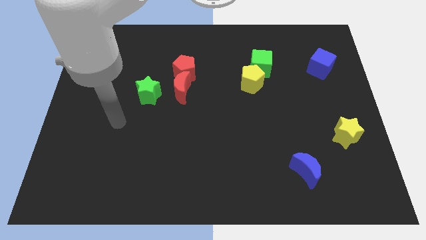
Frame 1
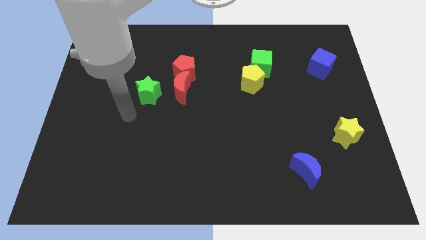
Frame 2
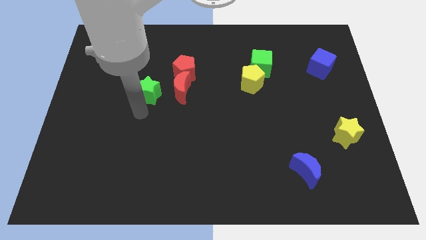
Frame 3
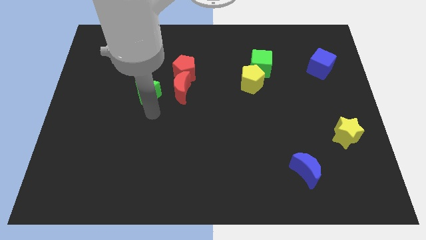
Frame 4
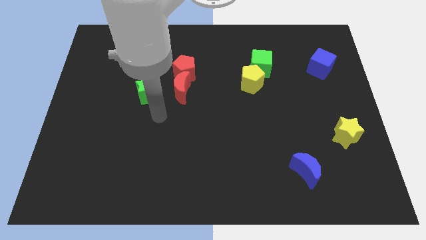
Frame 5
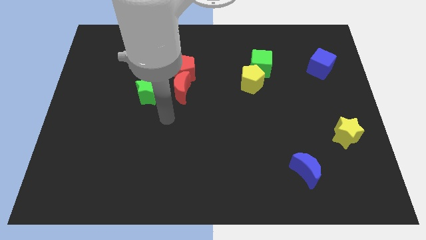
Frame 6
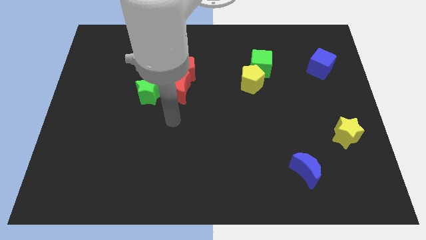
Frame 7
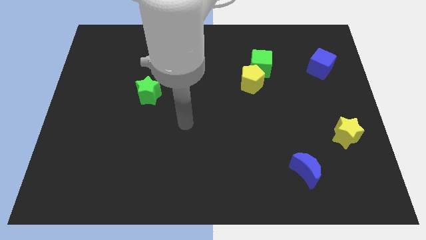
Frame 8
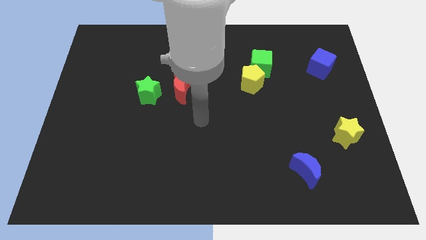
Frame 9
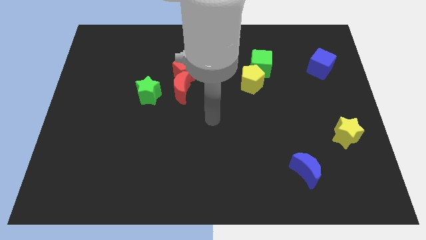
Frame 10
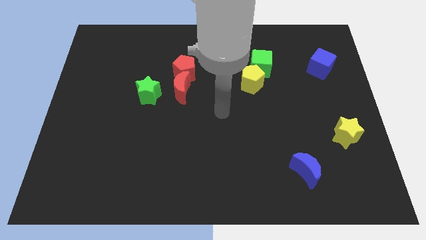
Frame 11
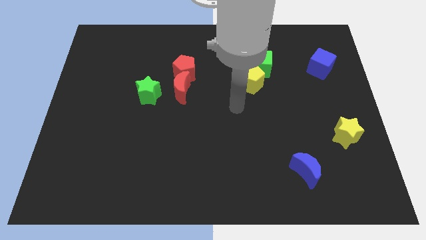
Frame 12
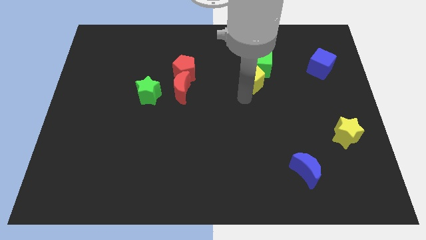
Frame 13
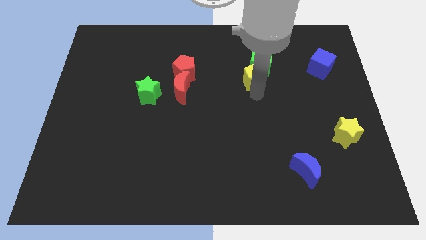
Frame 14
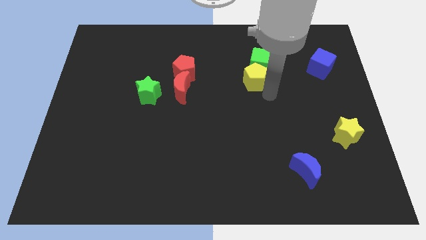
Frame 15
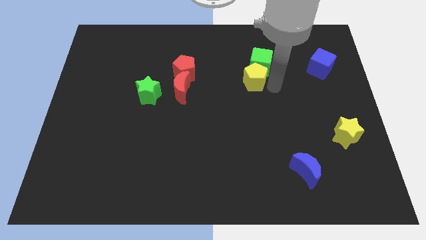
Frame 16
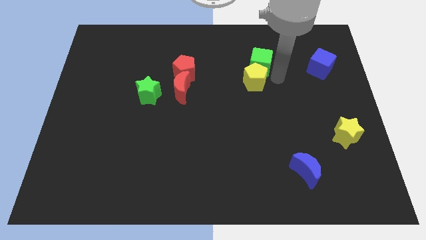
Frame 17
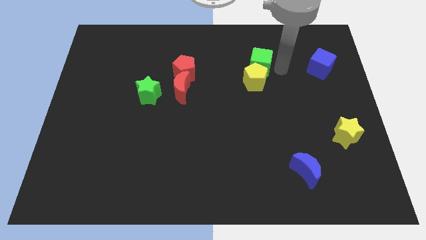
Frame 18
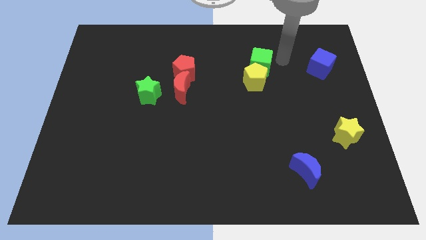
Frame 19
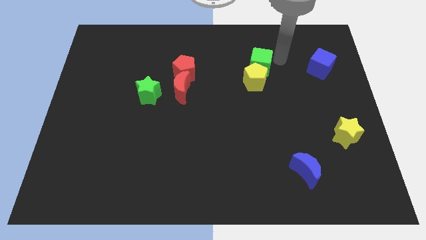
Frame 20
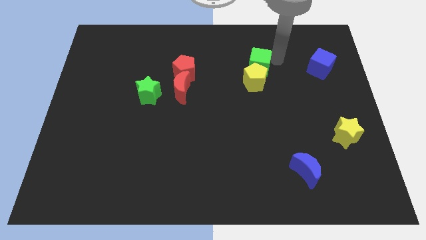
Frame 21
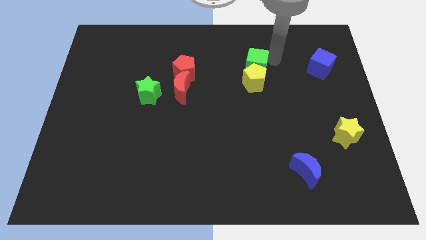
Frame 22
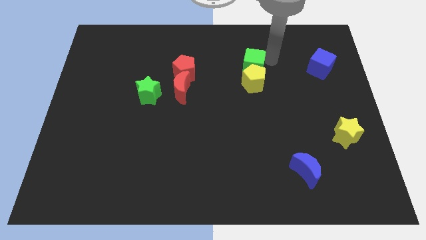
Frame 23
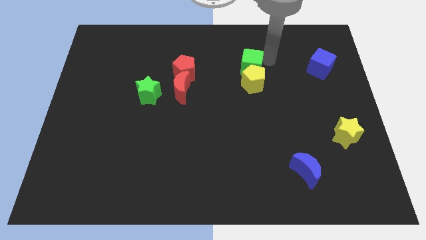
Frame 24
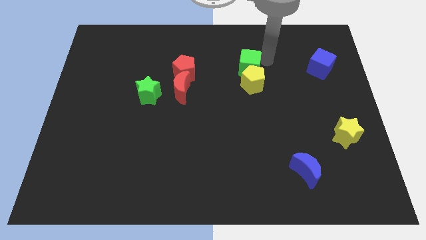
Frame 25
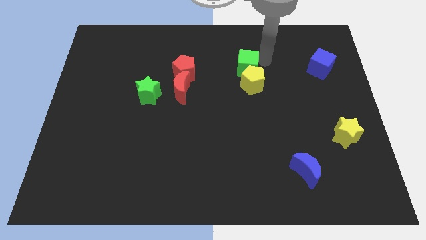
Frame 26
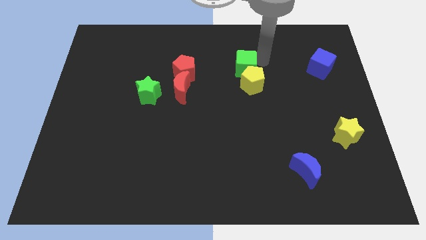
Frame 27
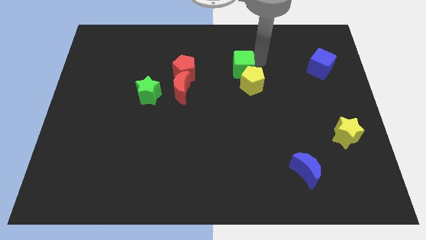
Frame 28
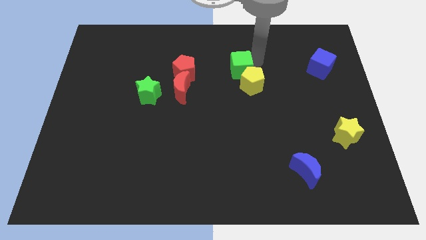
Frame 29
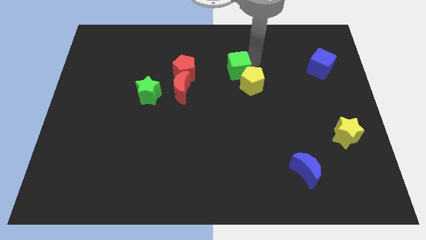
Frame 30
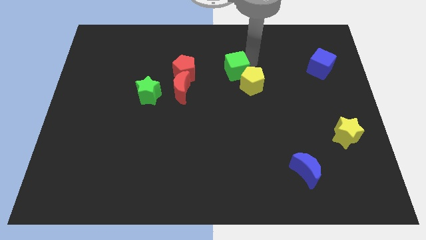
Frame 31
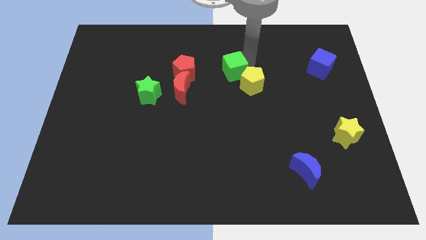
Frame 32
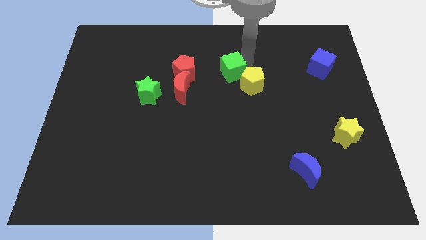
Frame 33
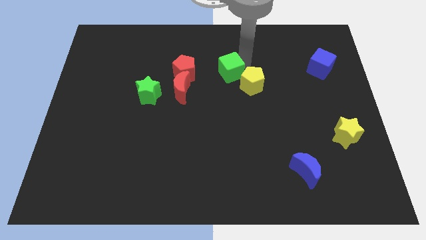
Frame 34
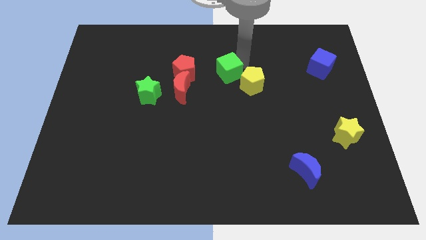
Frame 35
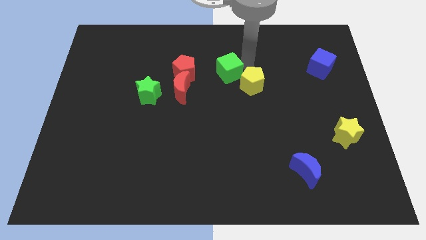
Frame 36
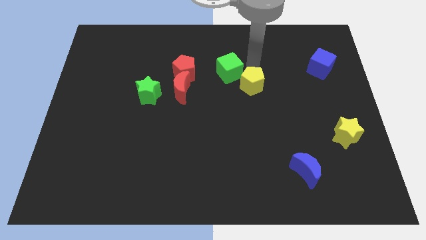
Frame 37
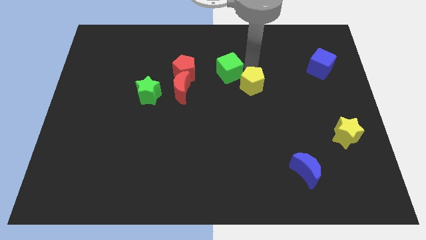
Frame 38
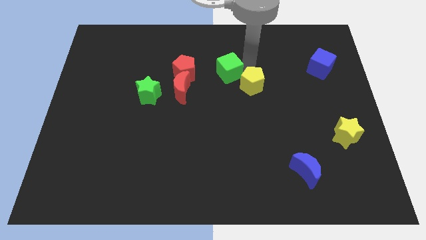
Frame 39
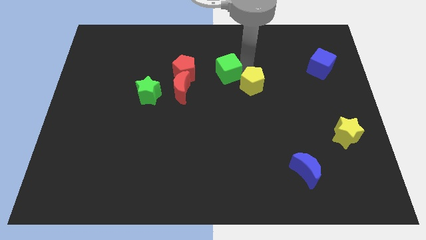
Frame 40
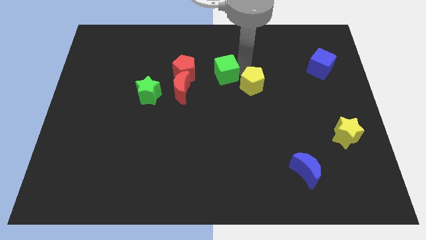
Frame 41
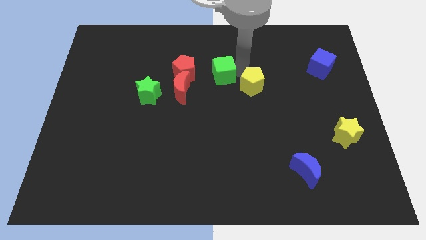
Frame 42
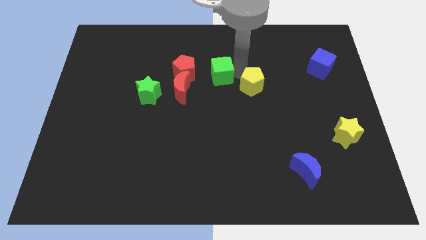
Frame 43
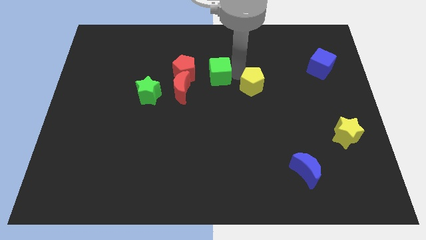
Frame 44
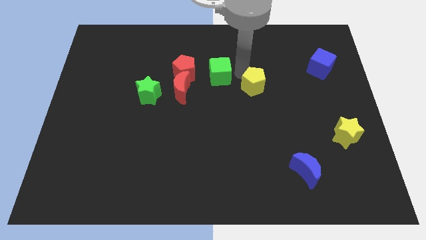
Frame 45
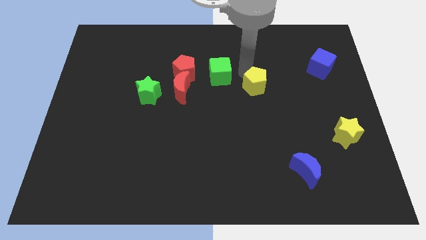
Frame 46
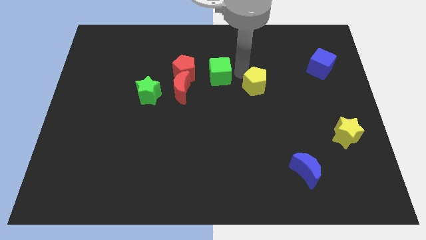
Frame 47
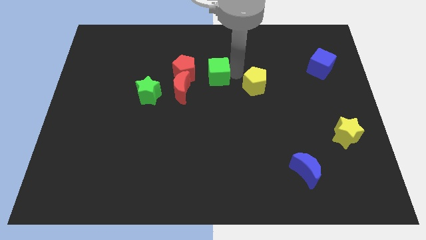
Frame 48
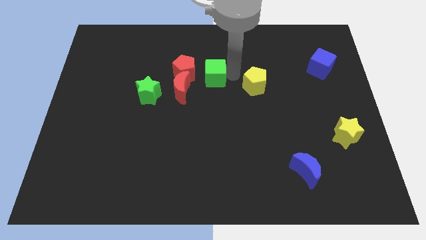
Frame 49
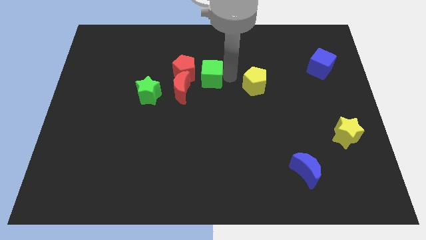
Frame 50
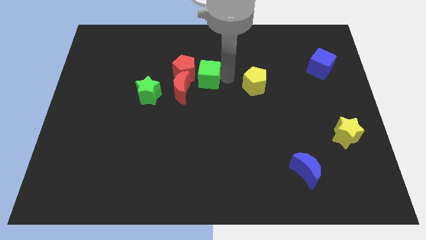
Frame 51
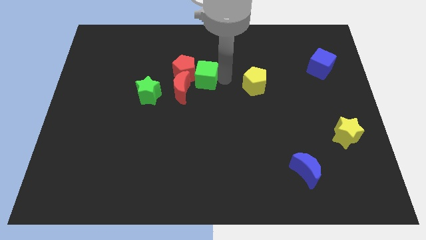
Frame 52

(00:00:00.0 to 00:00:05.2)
put the green cube towards the red pentagon

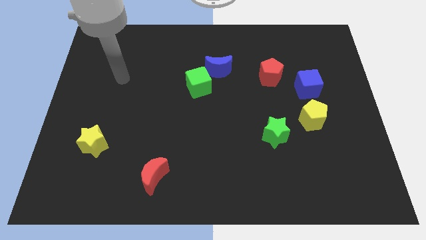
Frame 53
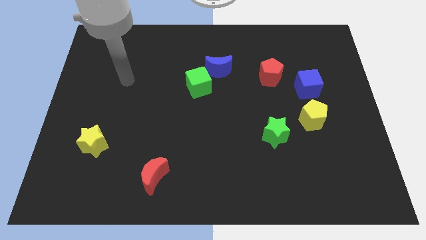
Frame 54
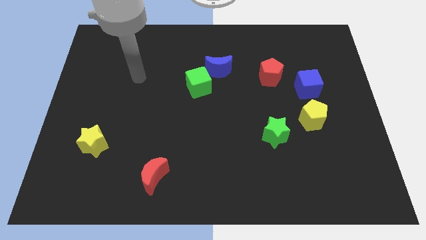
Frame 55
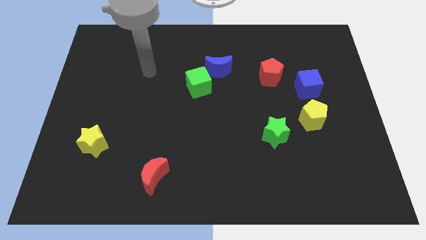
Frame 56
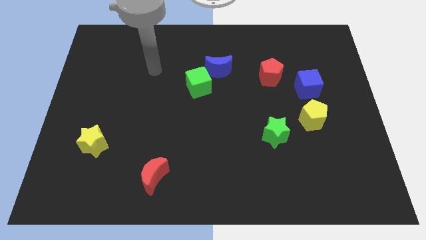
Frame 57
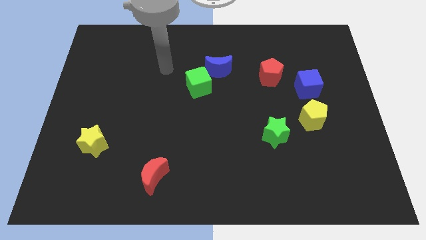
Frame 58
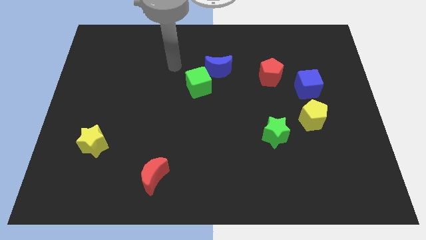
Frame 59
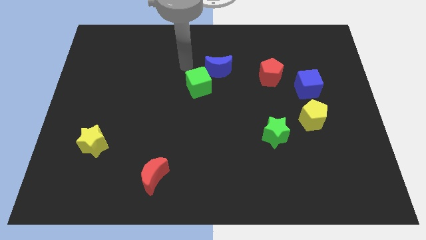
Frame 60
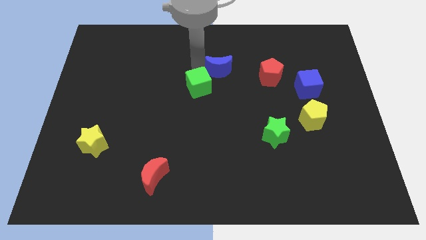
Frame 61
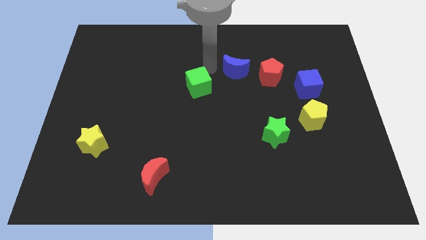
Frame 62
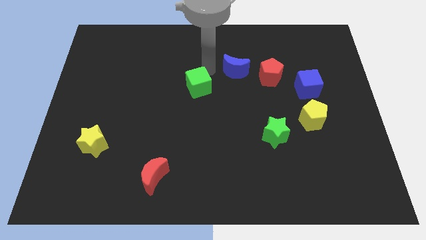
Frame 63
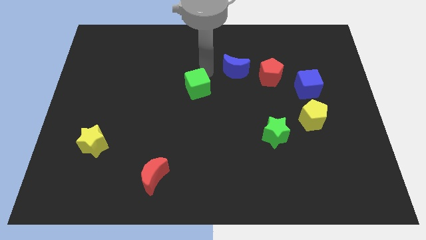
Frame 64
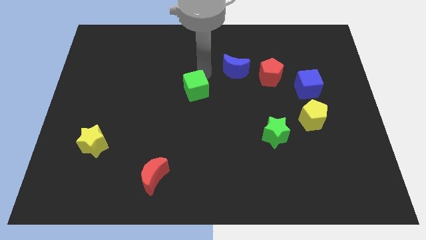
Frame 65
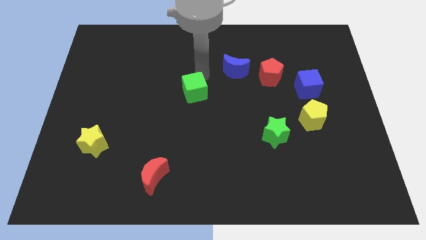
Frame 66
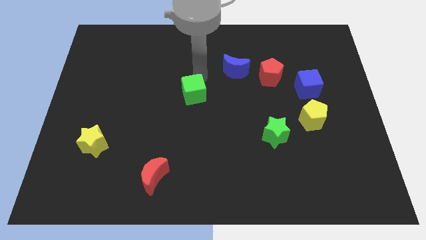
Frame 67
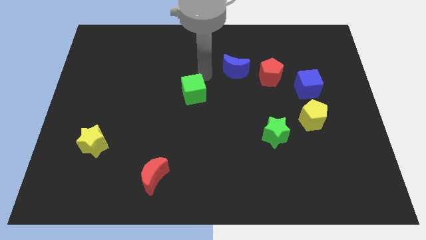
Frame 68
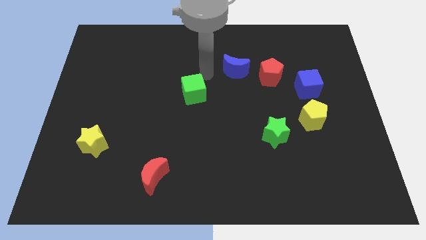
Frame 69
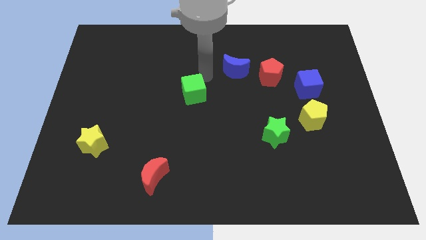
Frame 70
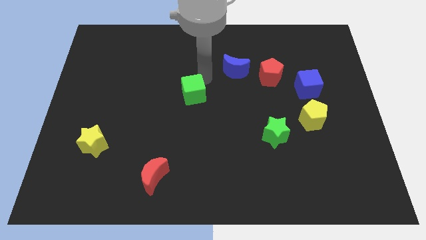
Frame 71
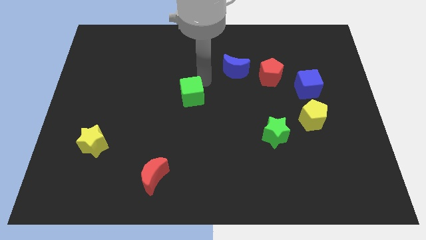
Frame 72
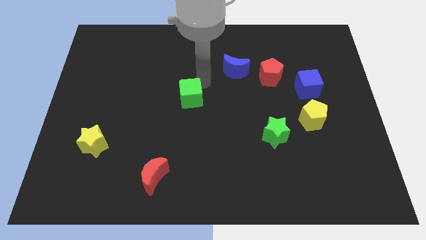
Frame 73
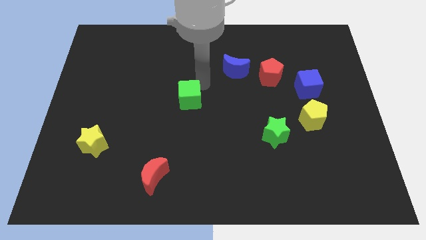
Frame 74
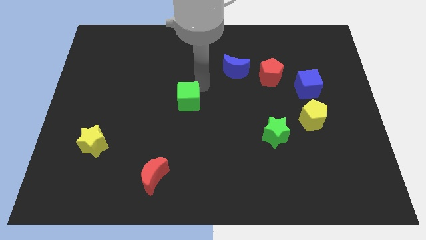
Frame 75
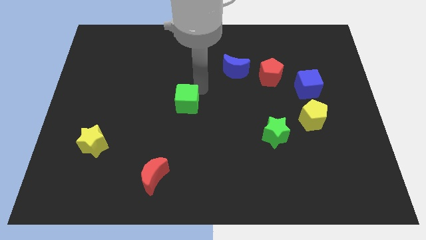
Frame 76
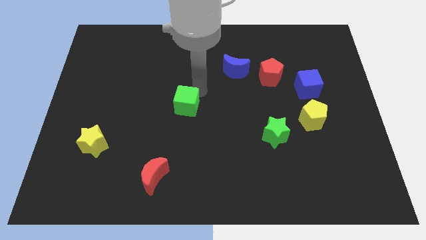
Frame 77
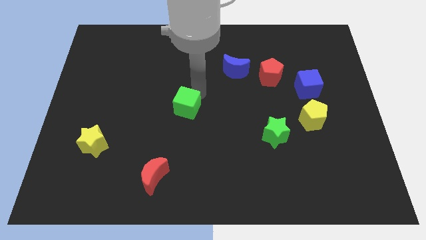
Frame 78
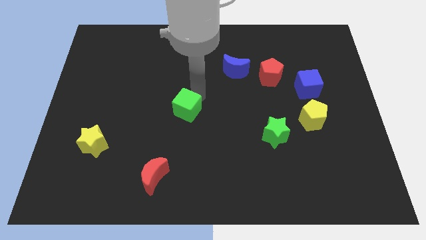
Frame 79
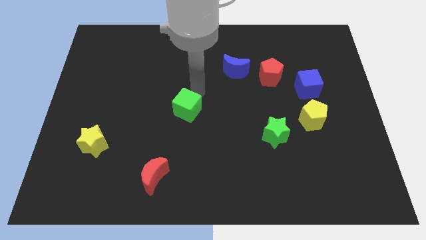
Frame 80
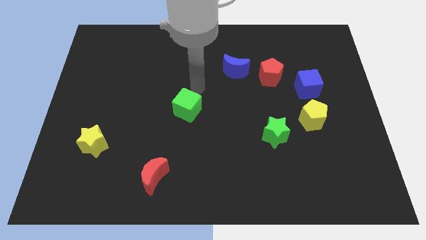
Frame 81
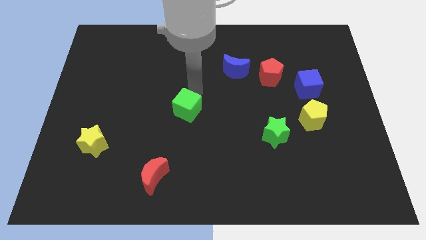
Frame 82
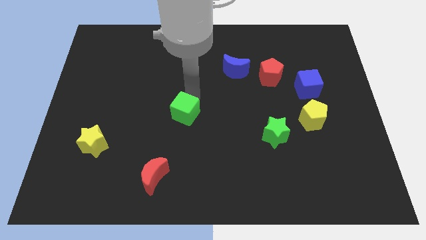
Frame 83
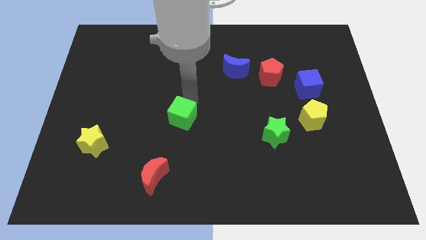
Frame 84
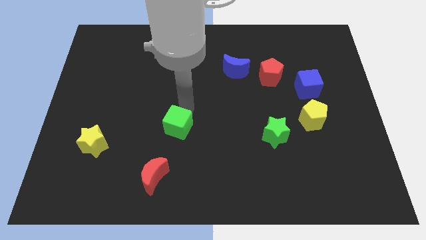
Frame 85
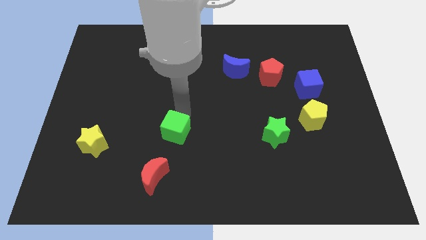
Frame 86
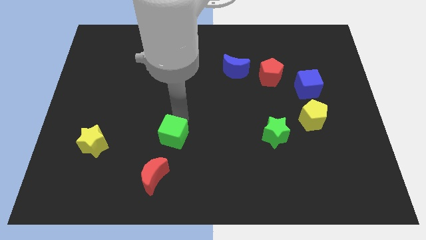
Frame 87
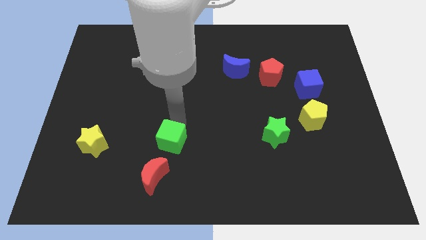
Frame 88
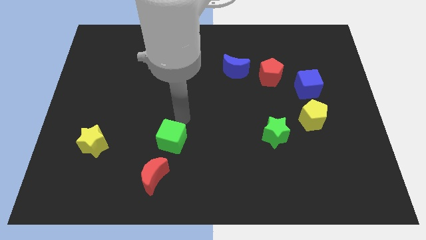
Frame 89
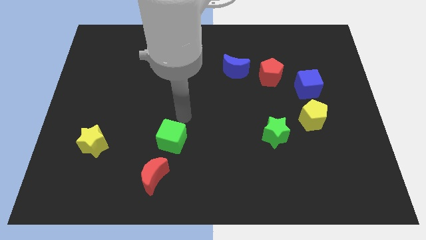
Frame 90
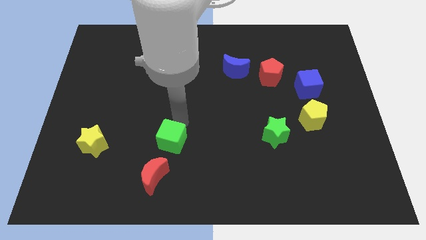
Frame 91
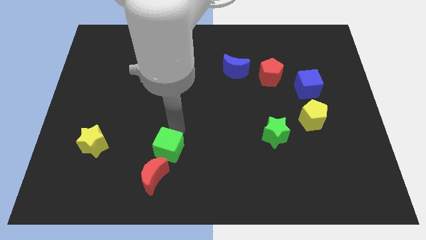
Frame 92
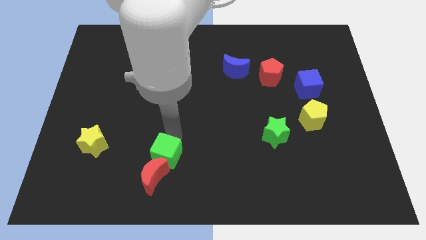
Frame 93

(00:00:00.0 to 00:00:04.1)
move the green cube close to the red moon
